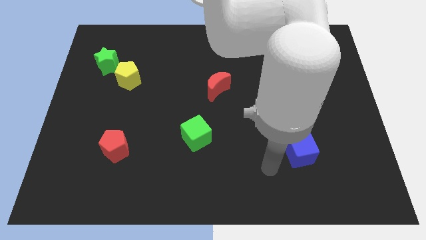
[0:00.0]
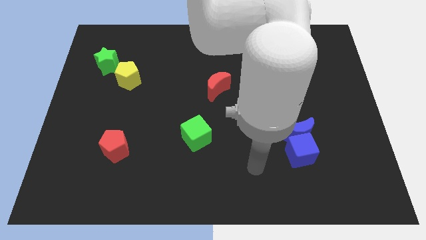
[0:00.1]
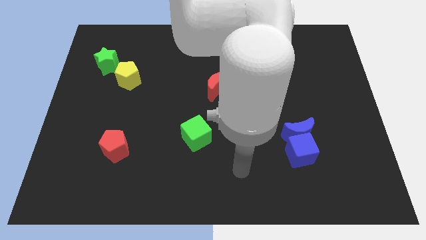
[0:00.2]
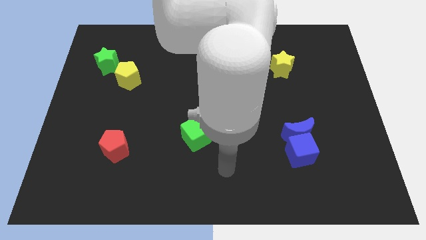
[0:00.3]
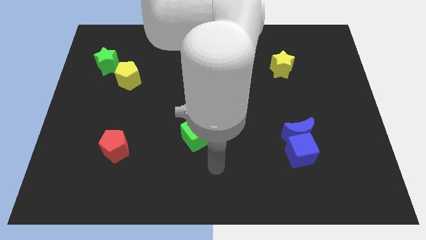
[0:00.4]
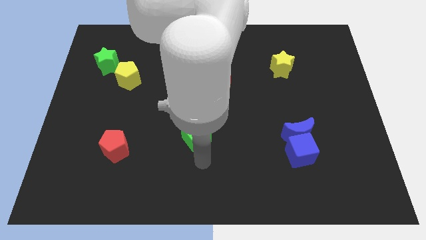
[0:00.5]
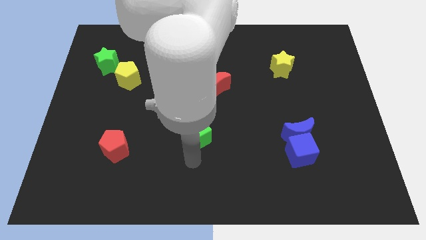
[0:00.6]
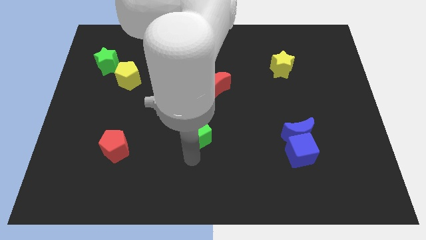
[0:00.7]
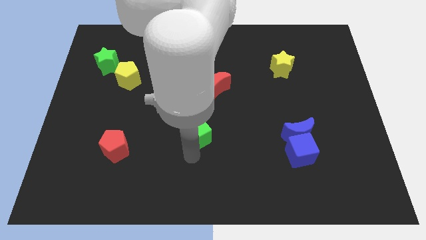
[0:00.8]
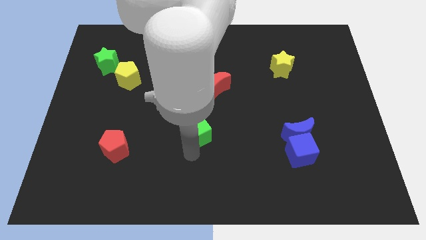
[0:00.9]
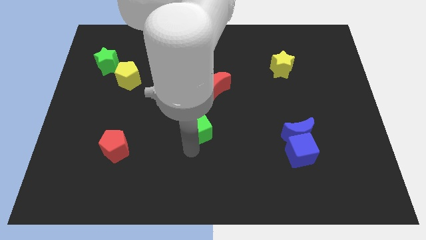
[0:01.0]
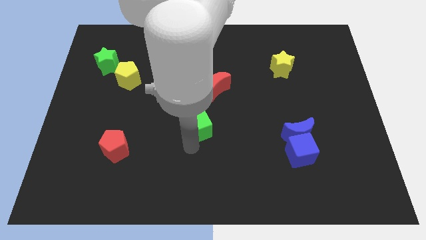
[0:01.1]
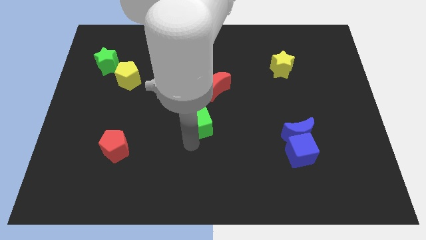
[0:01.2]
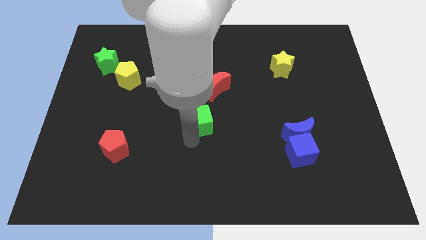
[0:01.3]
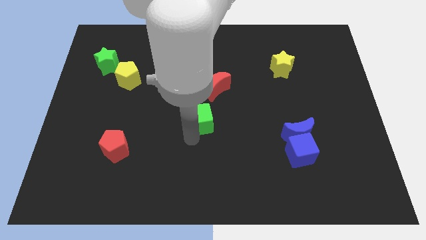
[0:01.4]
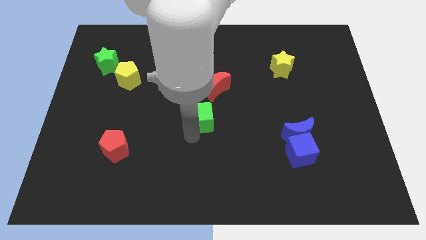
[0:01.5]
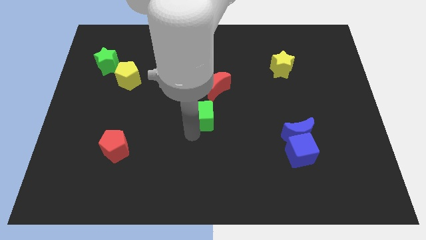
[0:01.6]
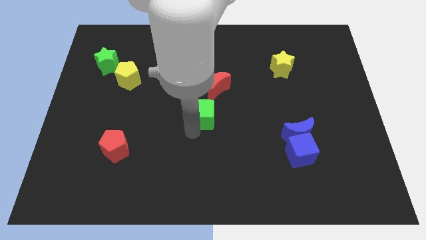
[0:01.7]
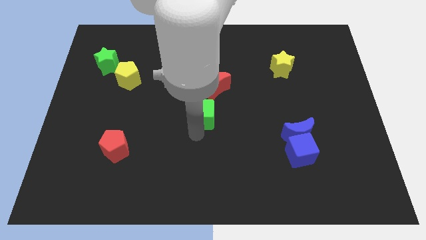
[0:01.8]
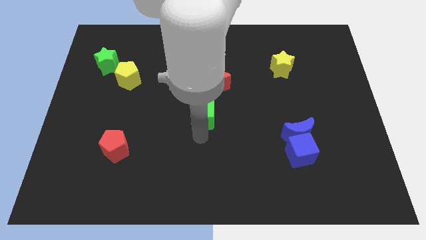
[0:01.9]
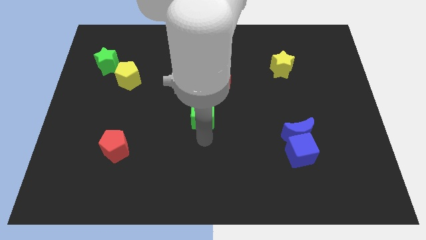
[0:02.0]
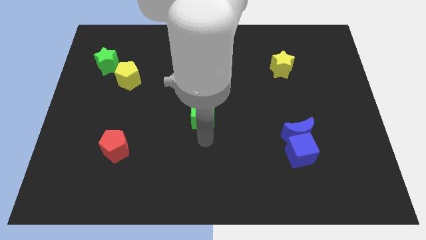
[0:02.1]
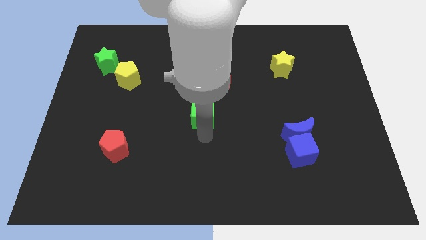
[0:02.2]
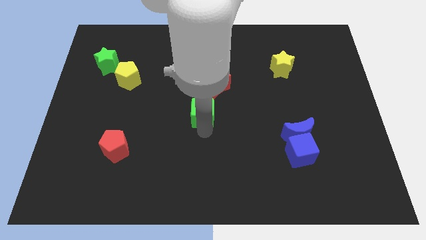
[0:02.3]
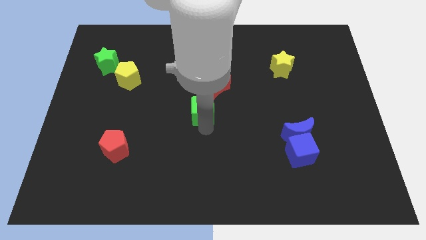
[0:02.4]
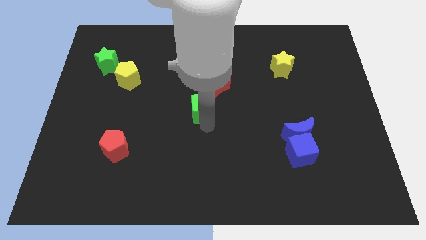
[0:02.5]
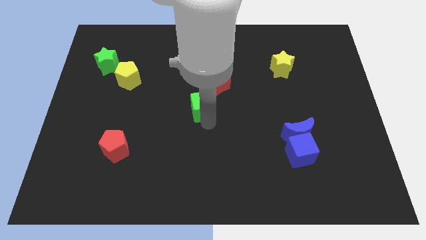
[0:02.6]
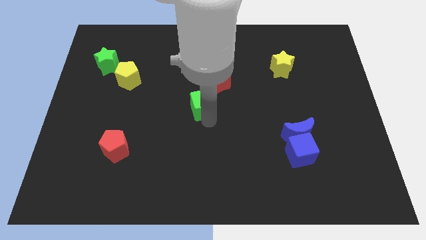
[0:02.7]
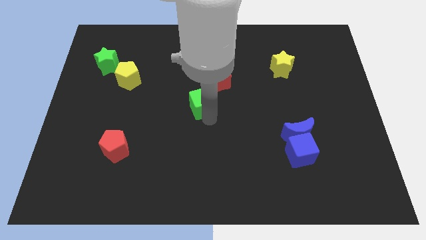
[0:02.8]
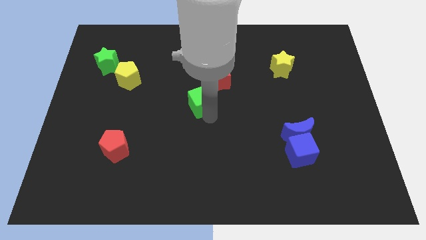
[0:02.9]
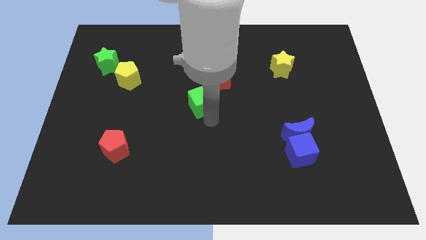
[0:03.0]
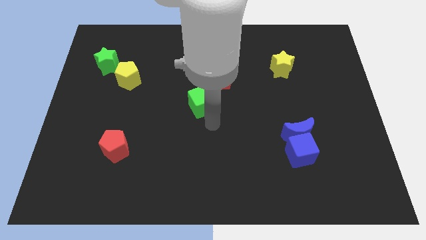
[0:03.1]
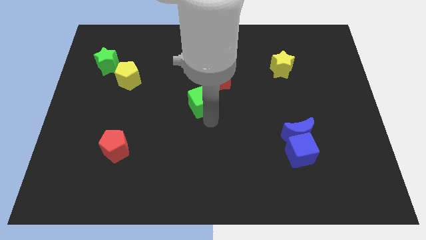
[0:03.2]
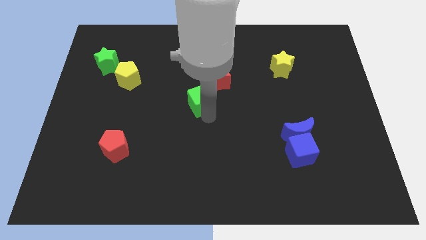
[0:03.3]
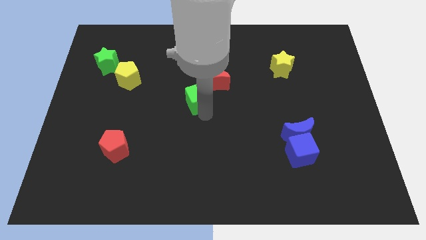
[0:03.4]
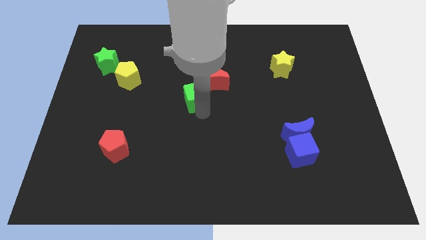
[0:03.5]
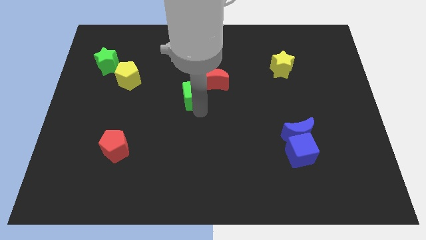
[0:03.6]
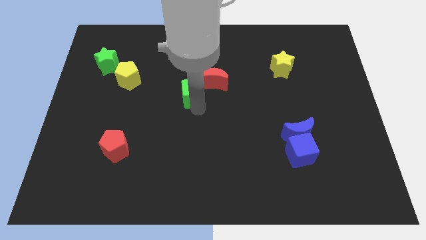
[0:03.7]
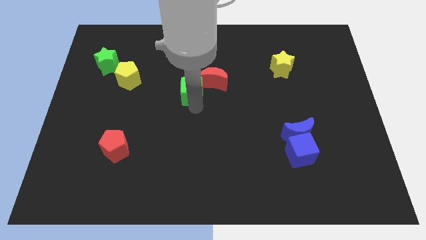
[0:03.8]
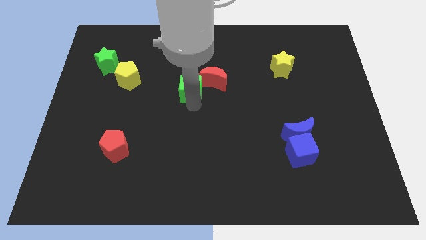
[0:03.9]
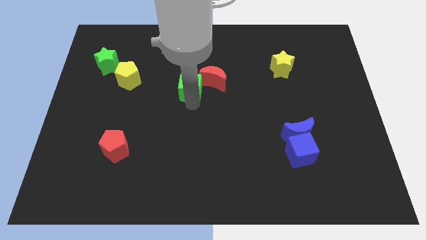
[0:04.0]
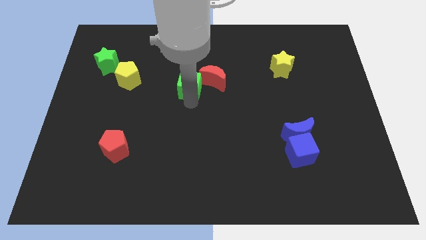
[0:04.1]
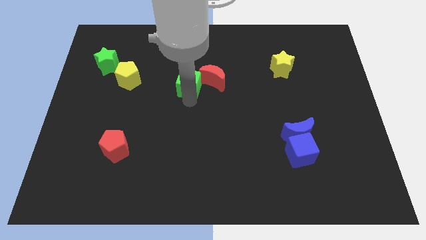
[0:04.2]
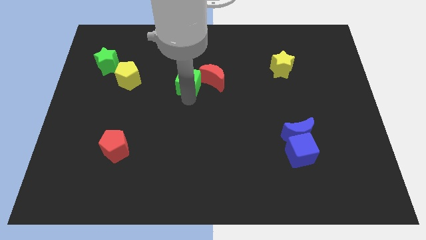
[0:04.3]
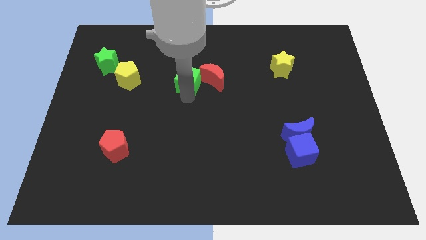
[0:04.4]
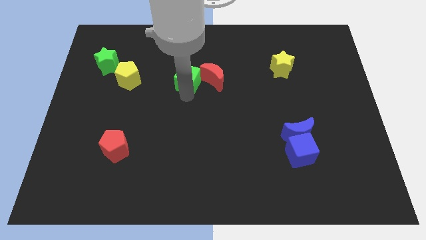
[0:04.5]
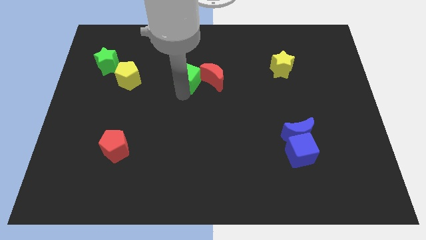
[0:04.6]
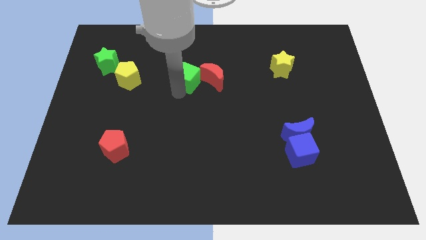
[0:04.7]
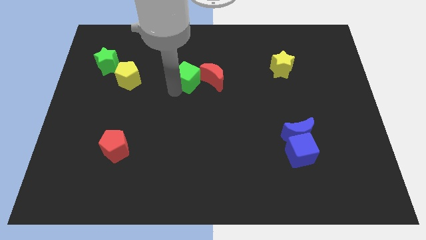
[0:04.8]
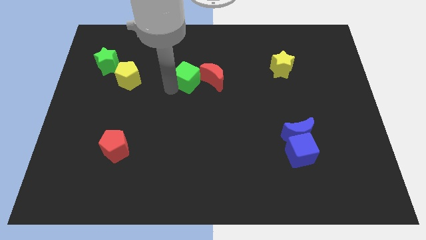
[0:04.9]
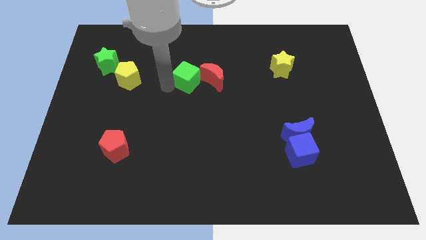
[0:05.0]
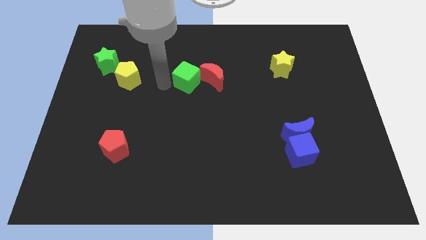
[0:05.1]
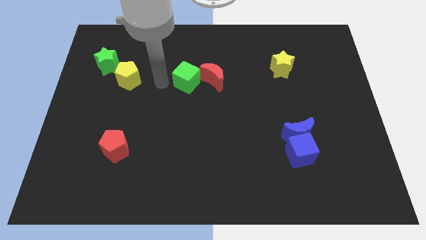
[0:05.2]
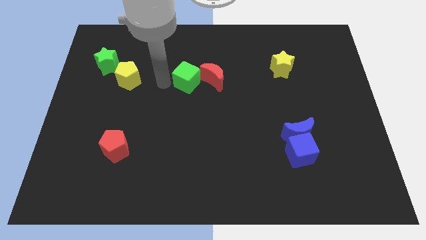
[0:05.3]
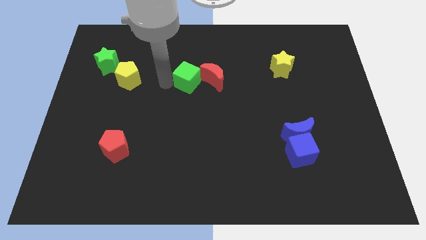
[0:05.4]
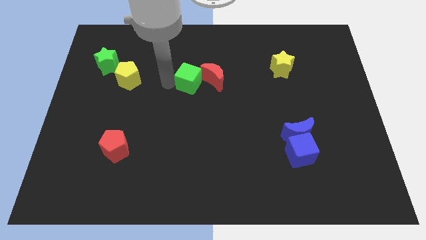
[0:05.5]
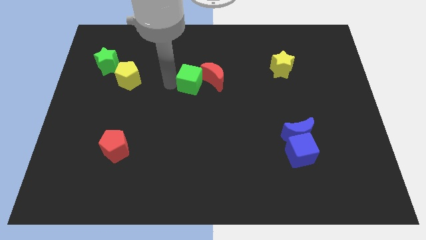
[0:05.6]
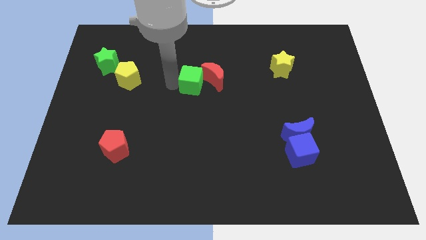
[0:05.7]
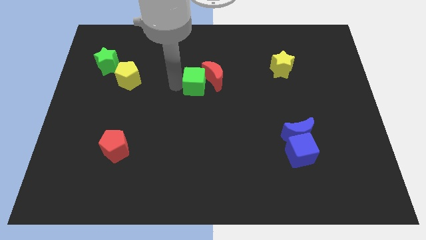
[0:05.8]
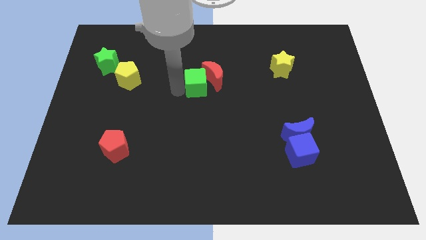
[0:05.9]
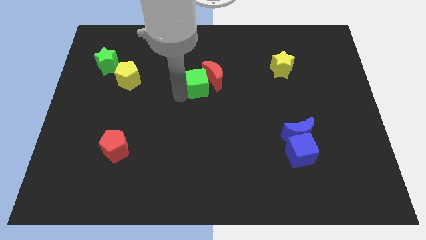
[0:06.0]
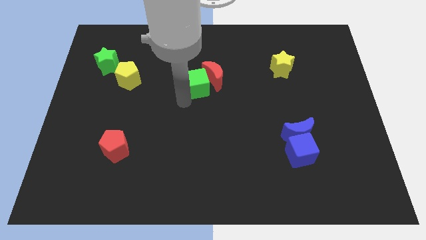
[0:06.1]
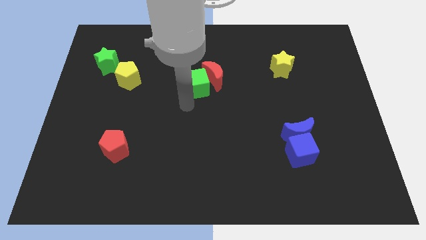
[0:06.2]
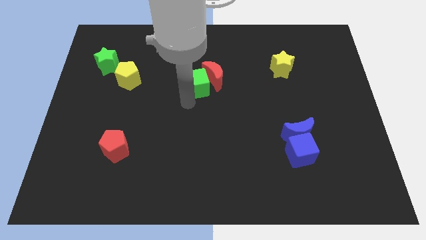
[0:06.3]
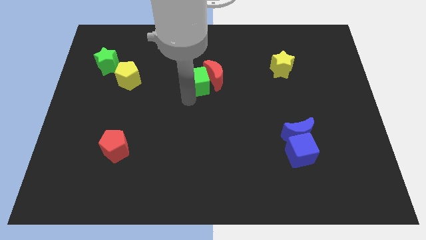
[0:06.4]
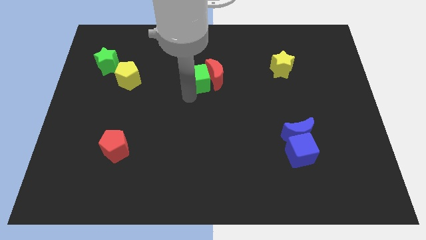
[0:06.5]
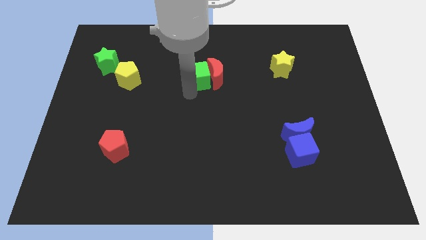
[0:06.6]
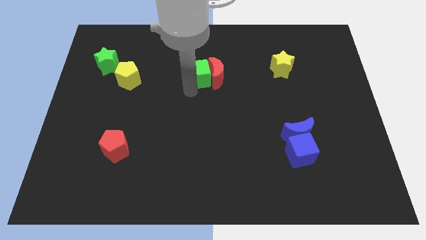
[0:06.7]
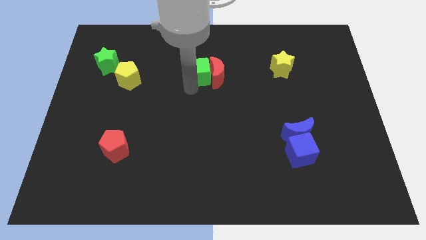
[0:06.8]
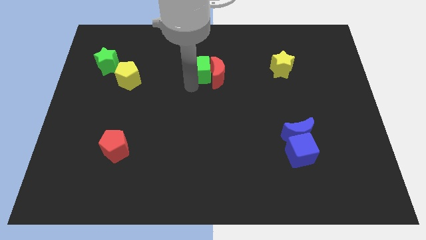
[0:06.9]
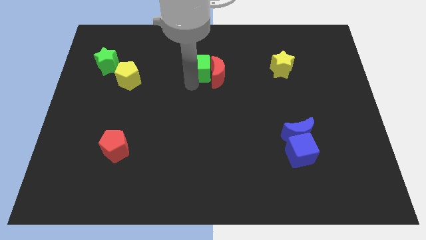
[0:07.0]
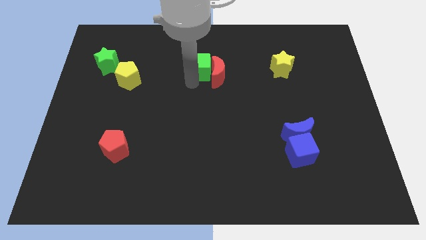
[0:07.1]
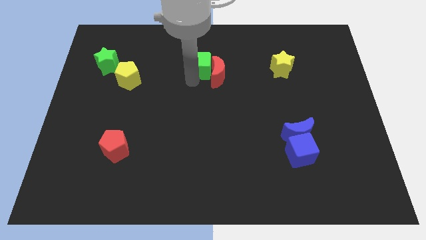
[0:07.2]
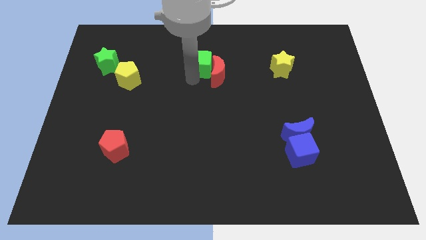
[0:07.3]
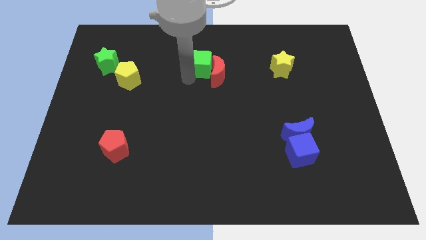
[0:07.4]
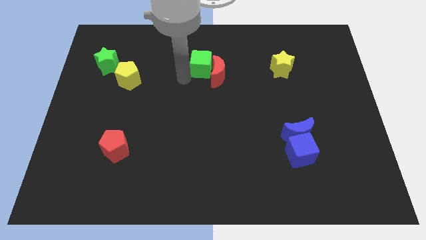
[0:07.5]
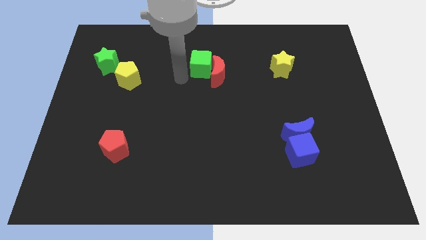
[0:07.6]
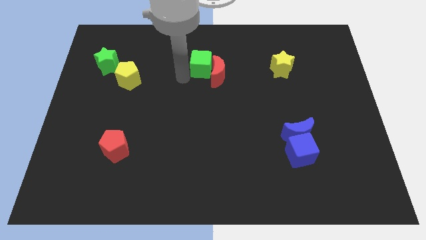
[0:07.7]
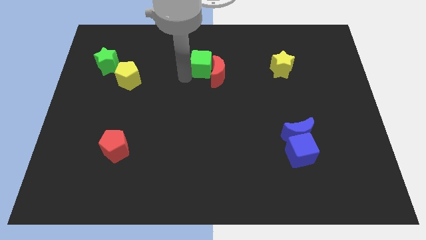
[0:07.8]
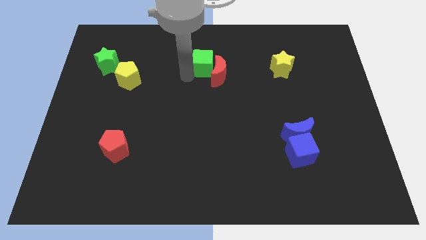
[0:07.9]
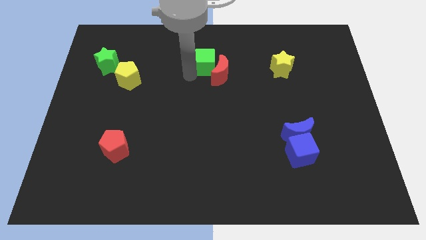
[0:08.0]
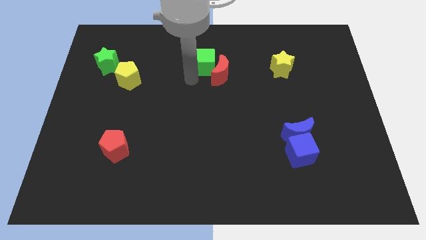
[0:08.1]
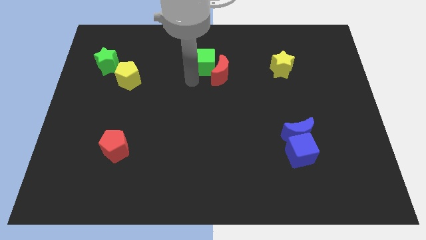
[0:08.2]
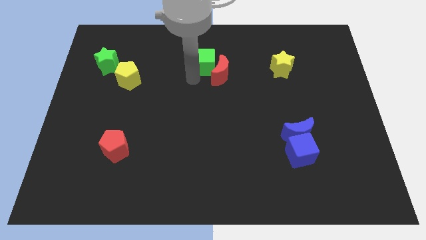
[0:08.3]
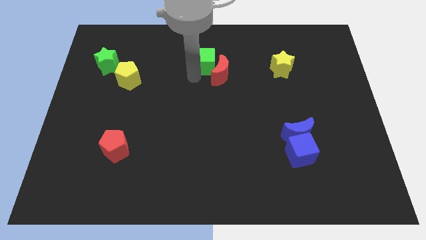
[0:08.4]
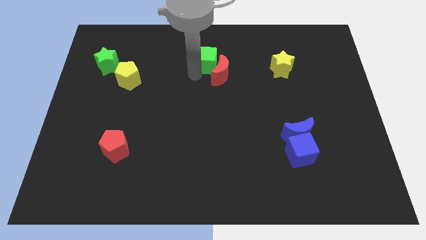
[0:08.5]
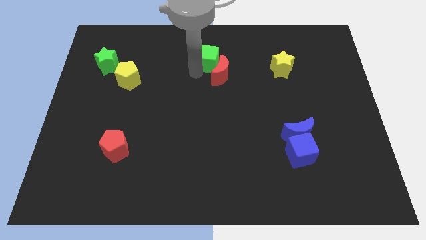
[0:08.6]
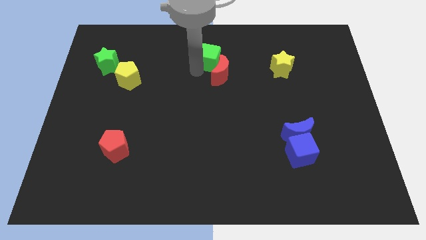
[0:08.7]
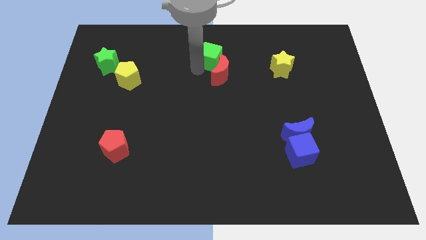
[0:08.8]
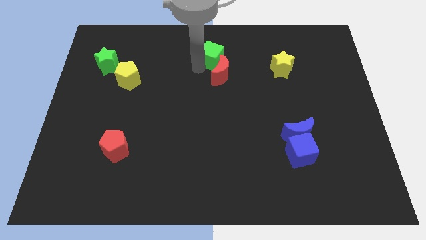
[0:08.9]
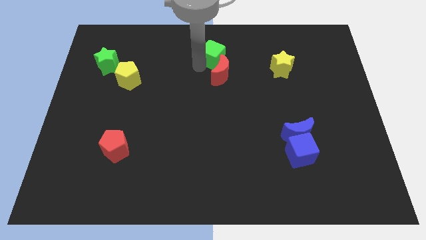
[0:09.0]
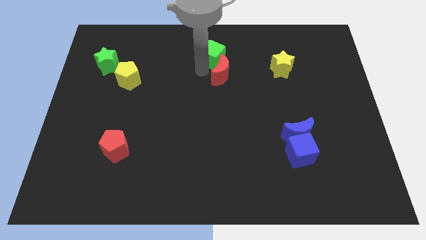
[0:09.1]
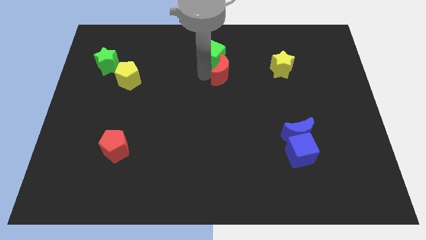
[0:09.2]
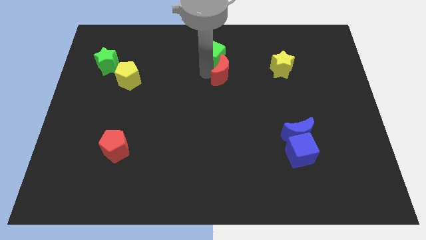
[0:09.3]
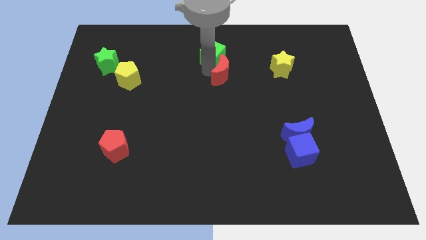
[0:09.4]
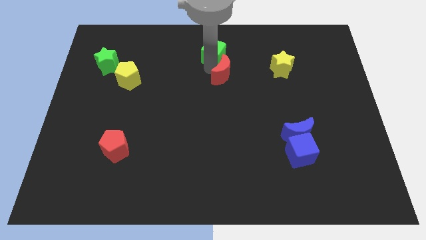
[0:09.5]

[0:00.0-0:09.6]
move the green cube to the top side
